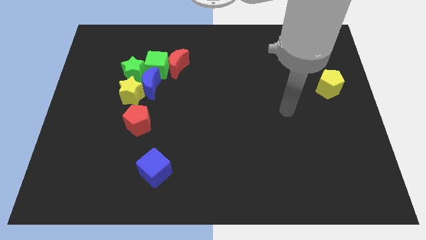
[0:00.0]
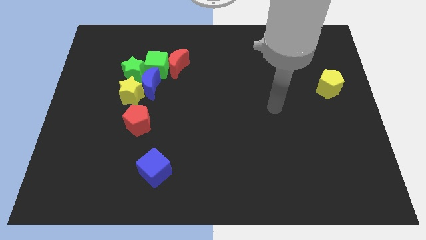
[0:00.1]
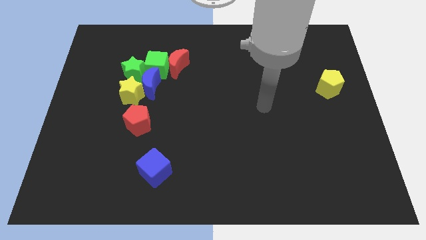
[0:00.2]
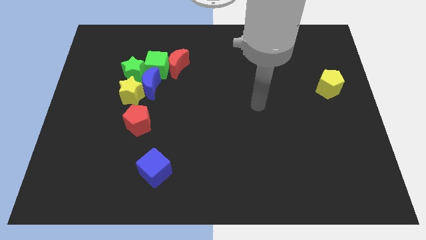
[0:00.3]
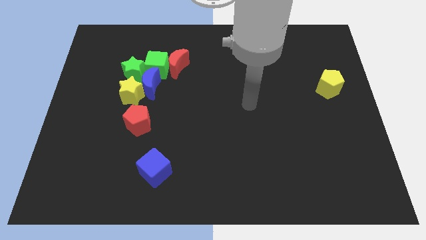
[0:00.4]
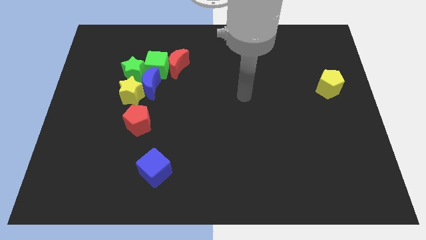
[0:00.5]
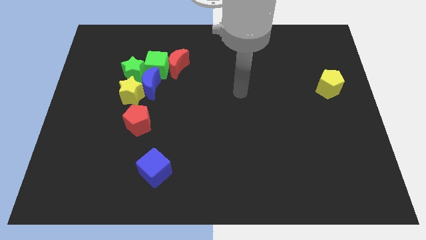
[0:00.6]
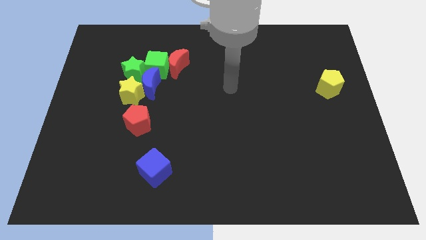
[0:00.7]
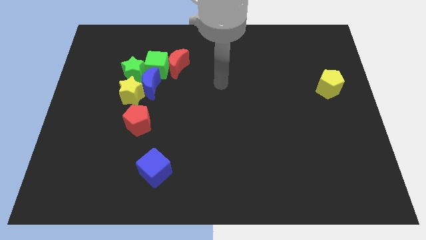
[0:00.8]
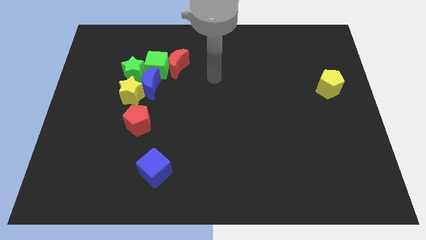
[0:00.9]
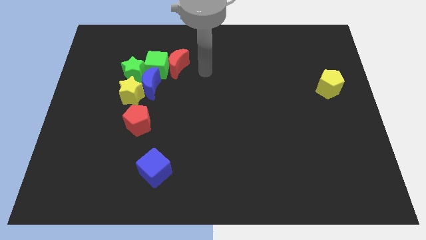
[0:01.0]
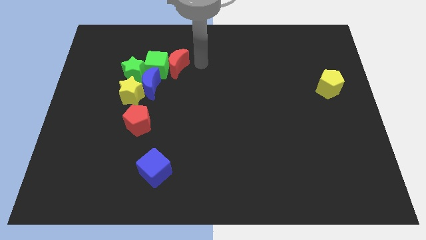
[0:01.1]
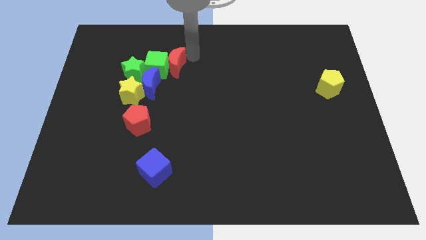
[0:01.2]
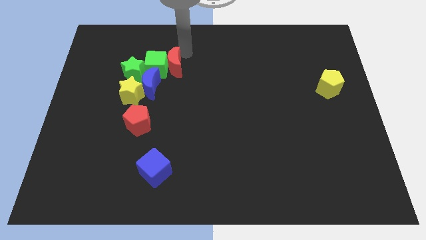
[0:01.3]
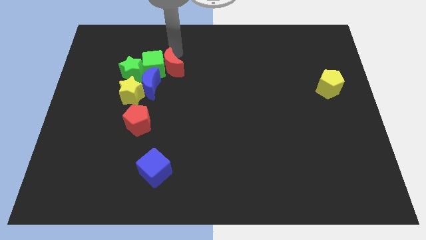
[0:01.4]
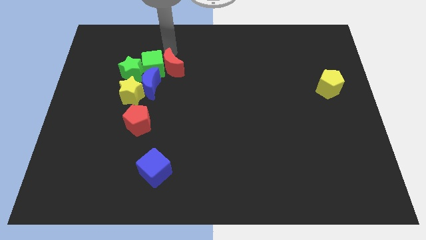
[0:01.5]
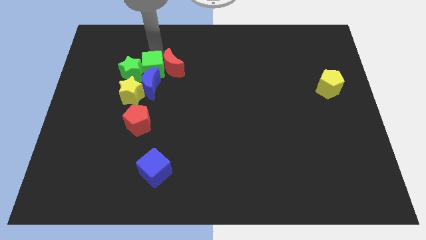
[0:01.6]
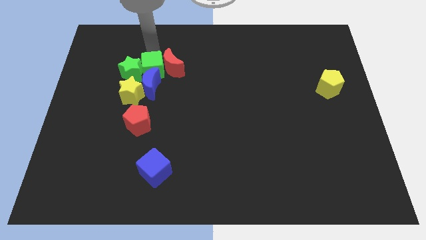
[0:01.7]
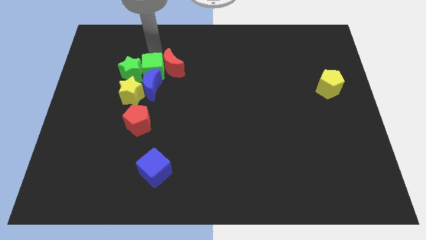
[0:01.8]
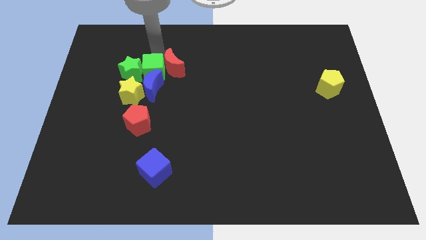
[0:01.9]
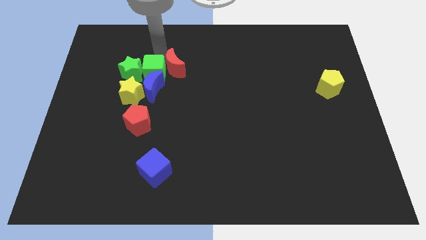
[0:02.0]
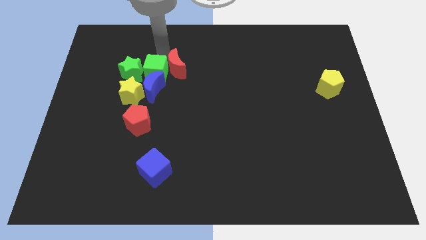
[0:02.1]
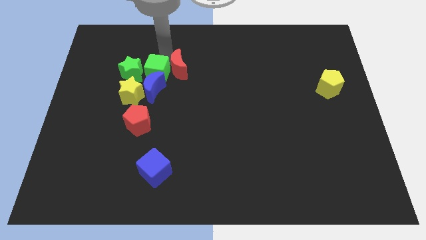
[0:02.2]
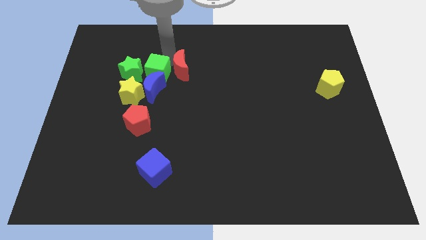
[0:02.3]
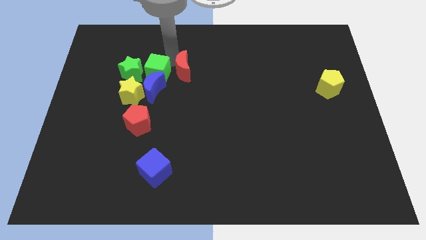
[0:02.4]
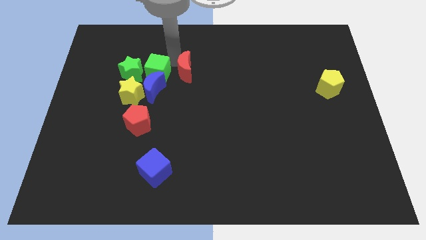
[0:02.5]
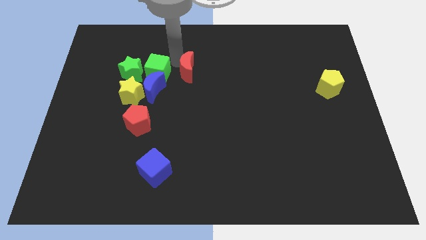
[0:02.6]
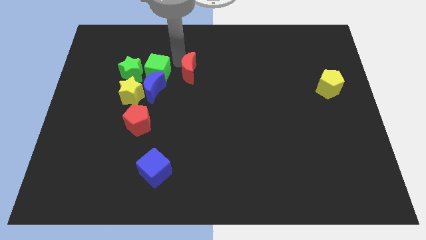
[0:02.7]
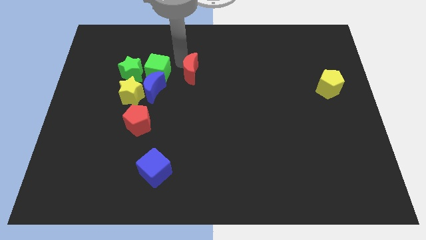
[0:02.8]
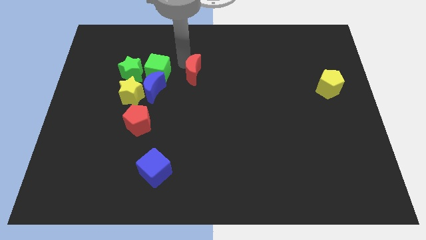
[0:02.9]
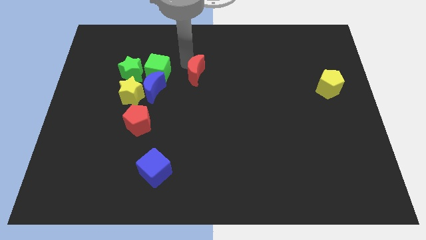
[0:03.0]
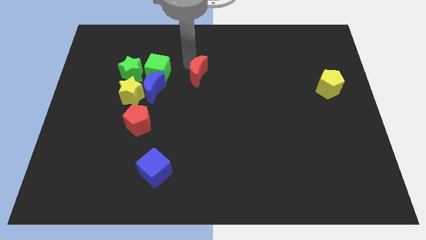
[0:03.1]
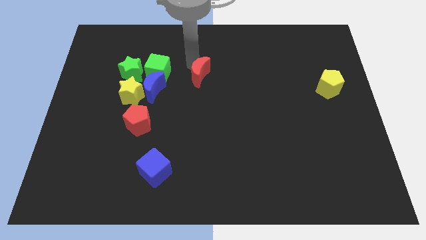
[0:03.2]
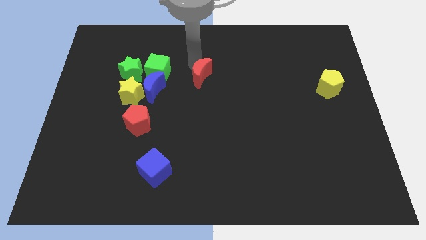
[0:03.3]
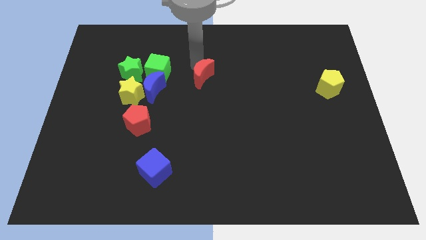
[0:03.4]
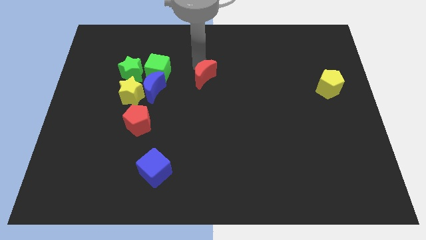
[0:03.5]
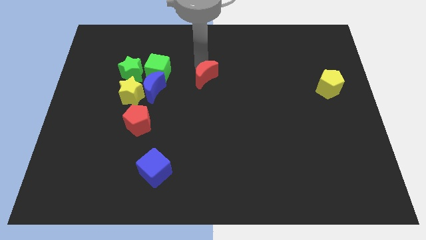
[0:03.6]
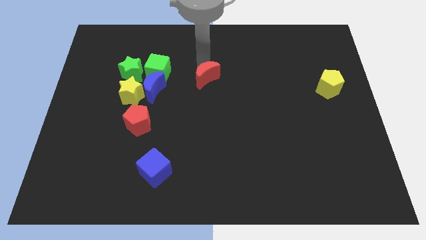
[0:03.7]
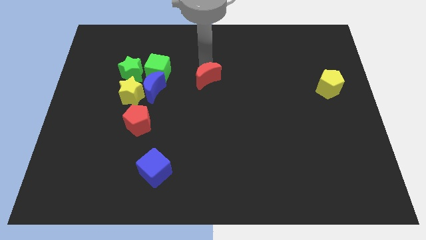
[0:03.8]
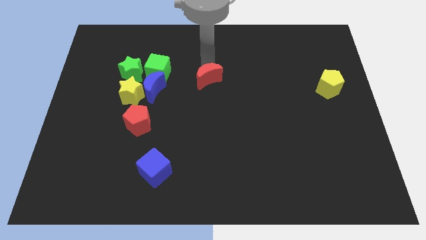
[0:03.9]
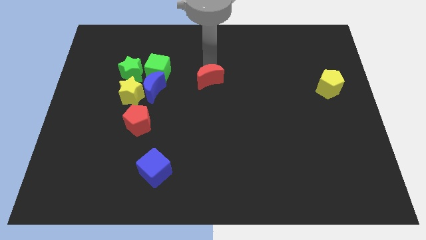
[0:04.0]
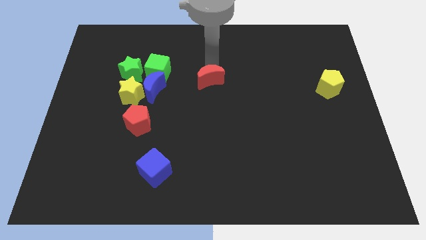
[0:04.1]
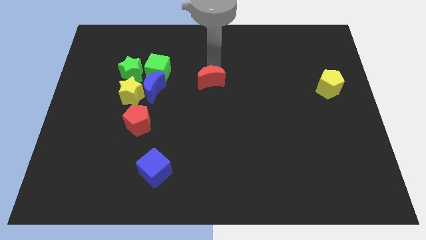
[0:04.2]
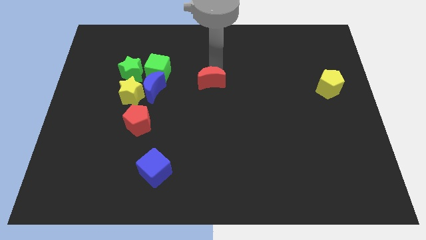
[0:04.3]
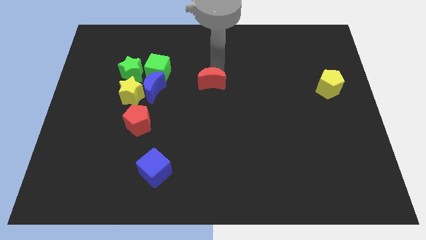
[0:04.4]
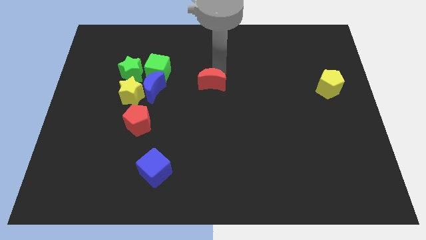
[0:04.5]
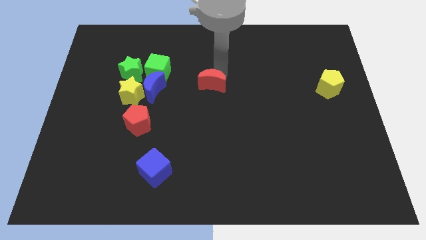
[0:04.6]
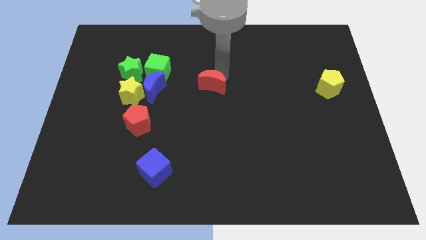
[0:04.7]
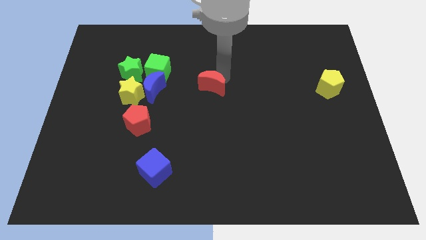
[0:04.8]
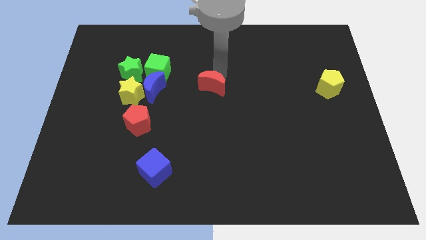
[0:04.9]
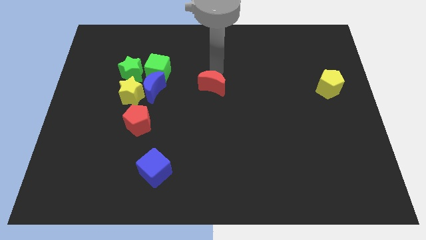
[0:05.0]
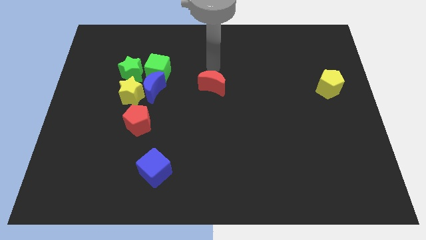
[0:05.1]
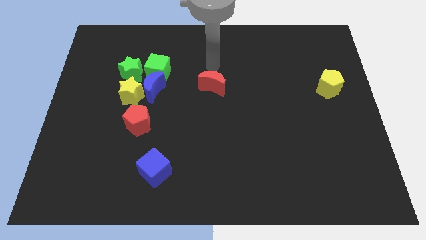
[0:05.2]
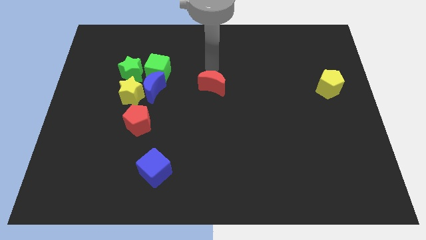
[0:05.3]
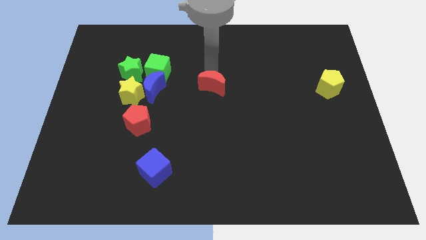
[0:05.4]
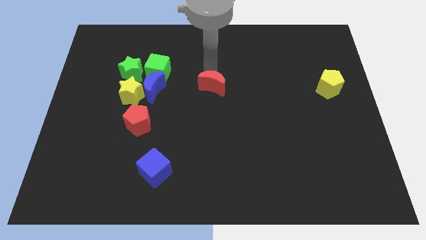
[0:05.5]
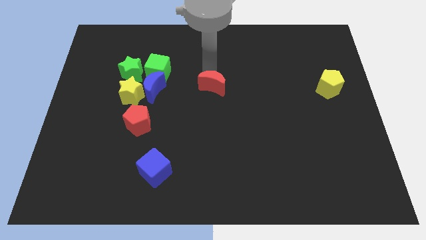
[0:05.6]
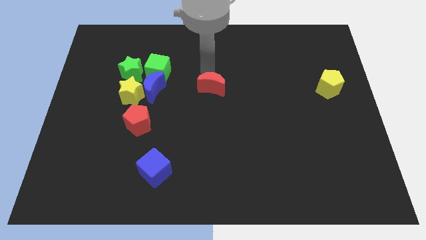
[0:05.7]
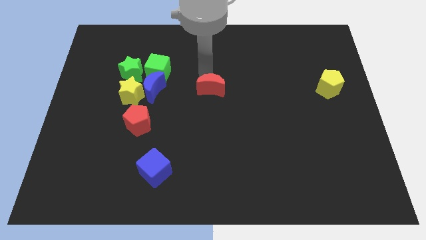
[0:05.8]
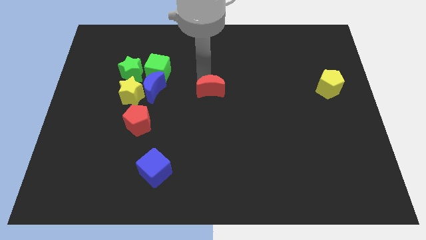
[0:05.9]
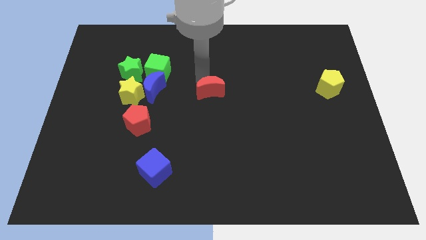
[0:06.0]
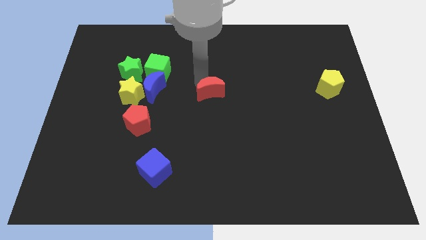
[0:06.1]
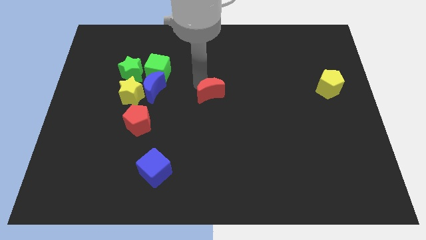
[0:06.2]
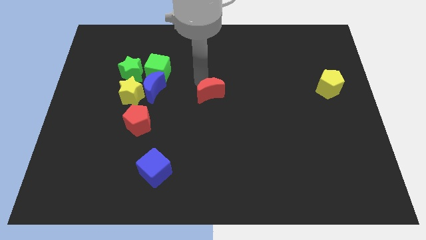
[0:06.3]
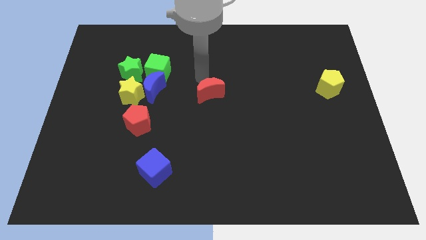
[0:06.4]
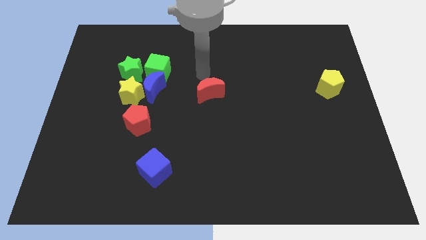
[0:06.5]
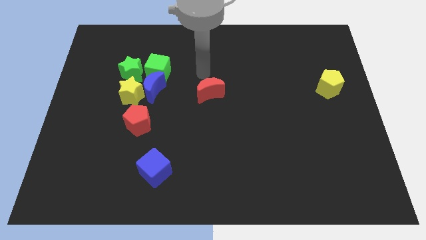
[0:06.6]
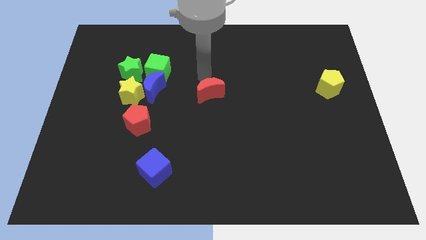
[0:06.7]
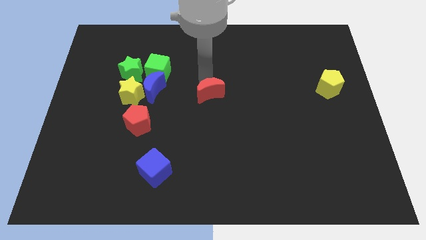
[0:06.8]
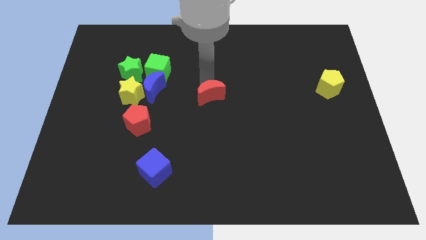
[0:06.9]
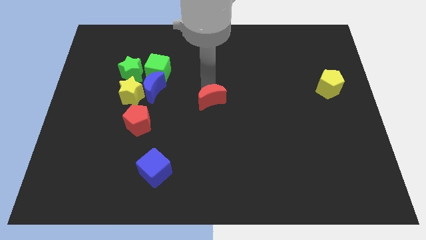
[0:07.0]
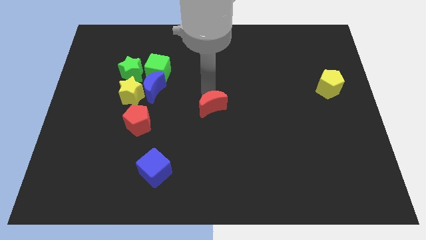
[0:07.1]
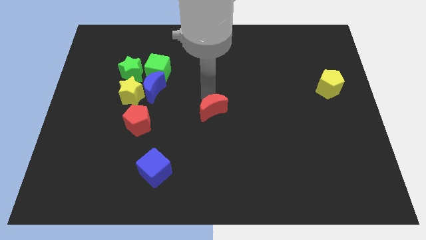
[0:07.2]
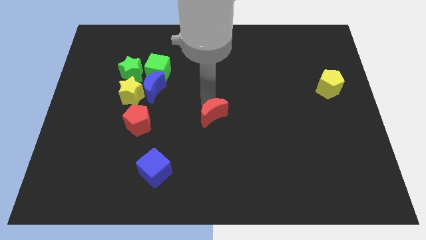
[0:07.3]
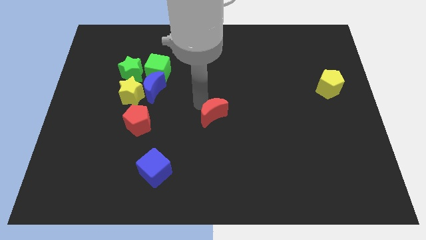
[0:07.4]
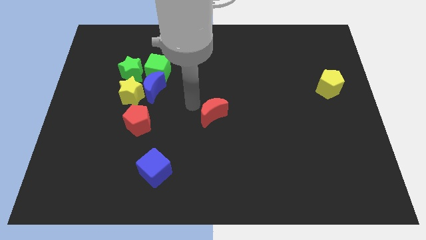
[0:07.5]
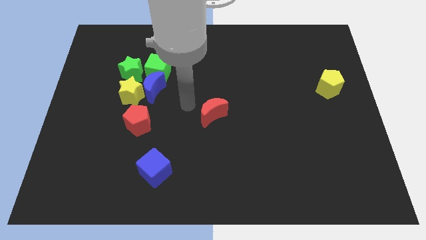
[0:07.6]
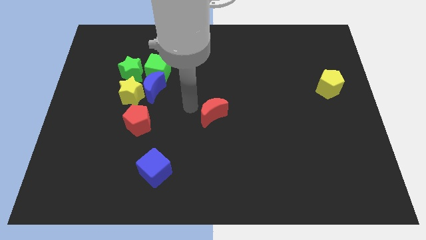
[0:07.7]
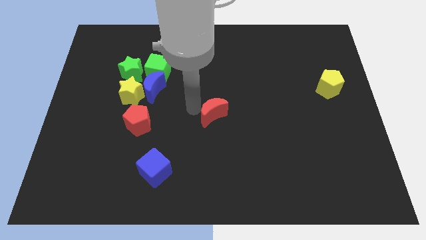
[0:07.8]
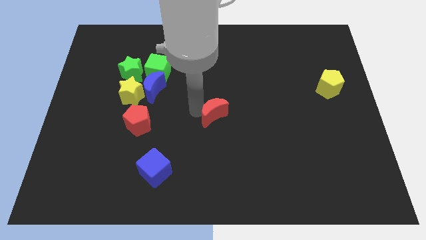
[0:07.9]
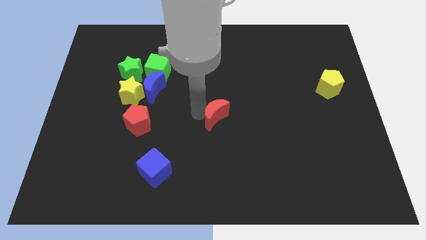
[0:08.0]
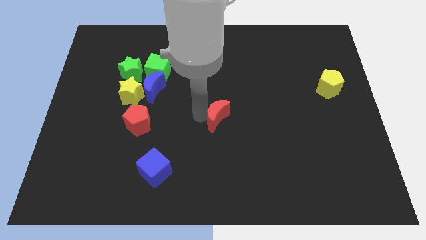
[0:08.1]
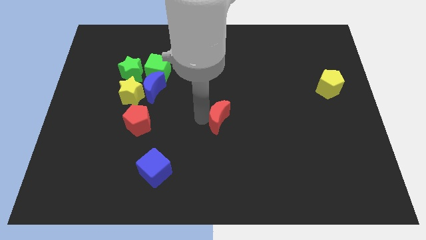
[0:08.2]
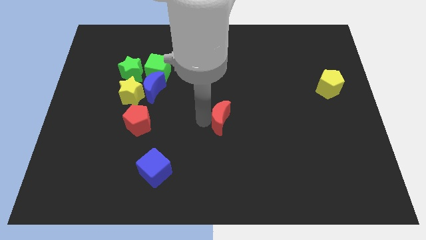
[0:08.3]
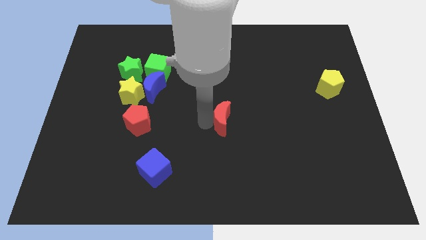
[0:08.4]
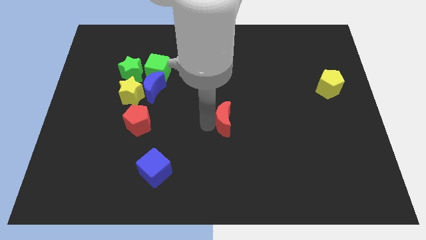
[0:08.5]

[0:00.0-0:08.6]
push the red moon downwards and to the right diagonally
